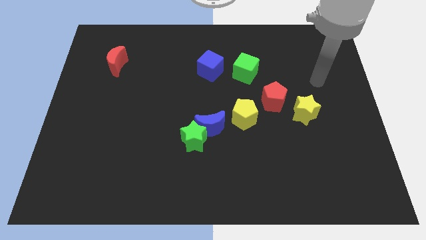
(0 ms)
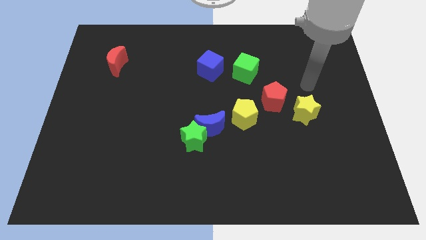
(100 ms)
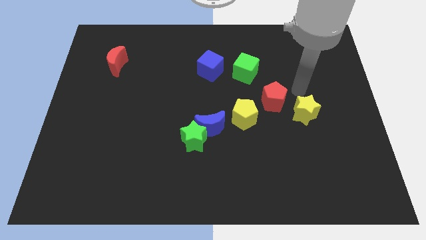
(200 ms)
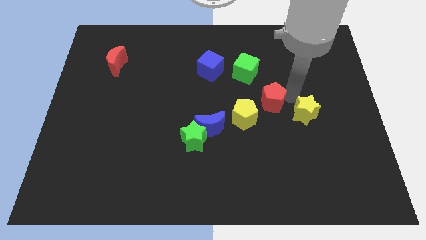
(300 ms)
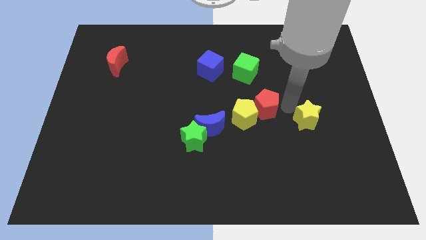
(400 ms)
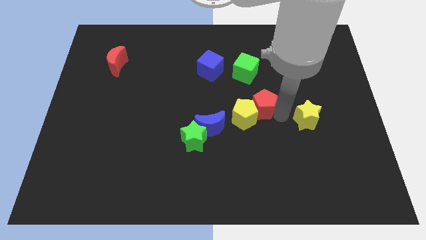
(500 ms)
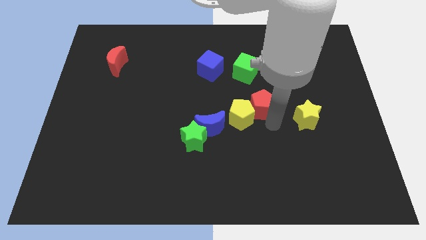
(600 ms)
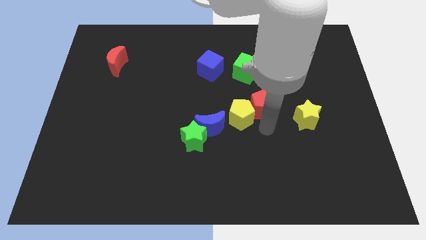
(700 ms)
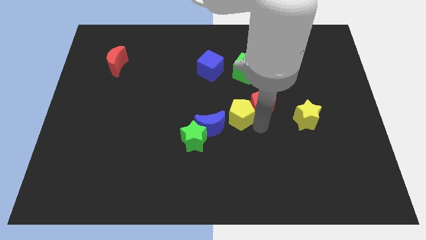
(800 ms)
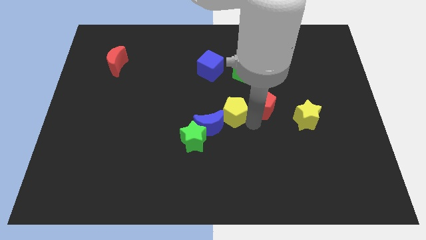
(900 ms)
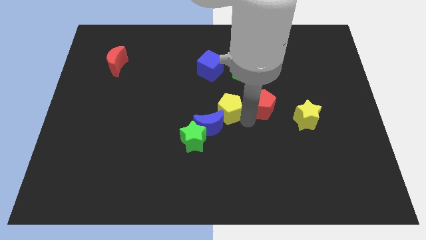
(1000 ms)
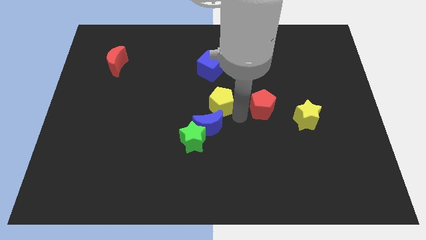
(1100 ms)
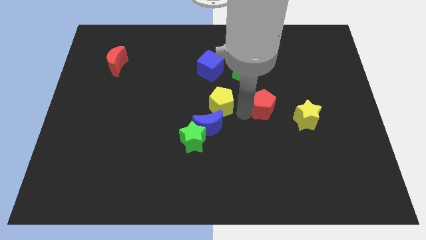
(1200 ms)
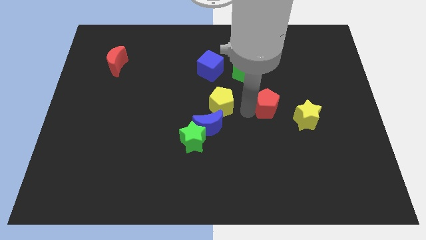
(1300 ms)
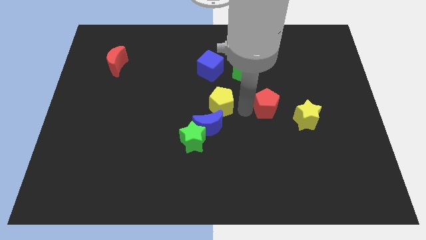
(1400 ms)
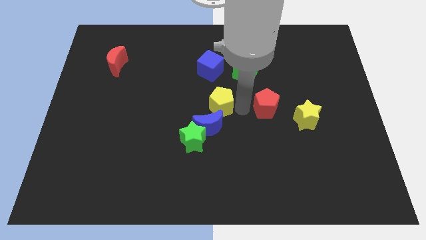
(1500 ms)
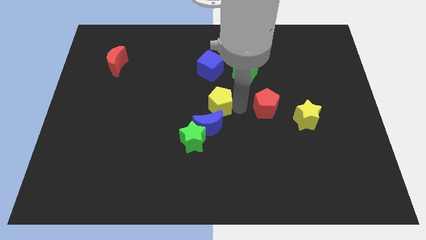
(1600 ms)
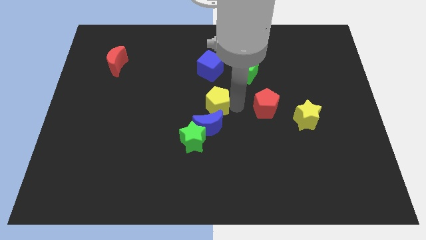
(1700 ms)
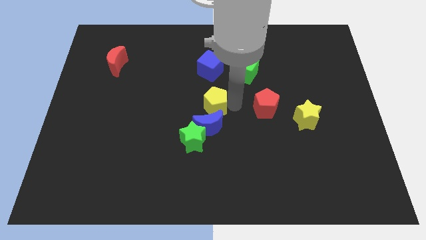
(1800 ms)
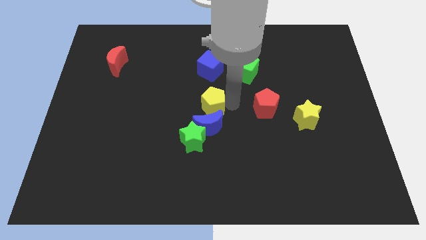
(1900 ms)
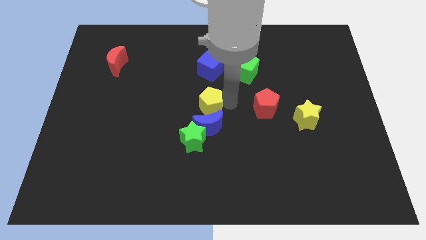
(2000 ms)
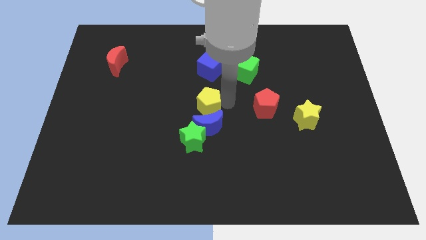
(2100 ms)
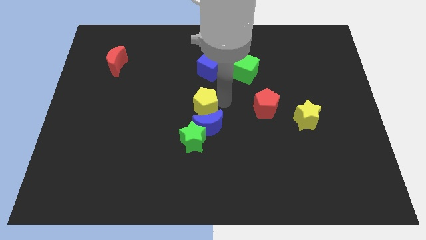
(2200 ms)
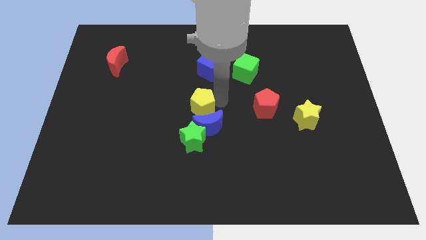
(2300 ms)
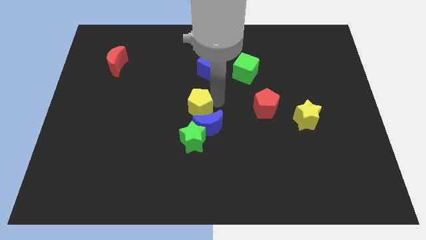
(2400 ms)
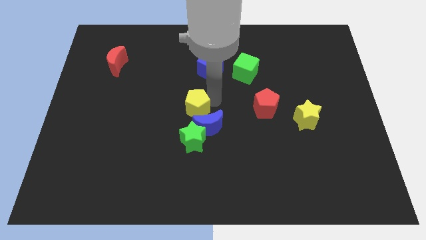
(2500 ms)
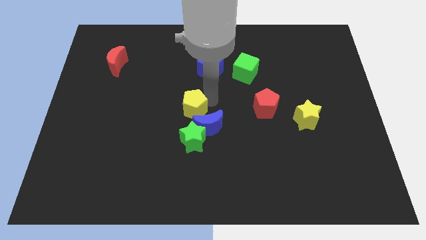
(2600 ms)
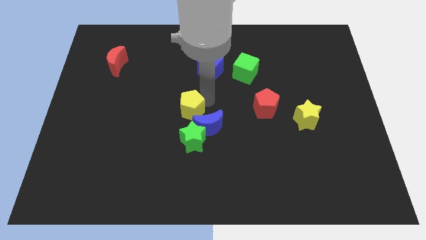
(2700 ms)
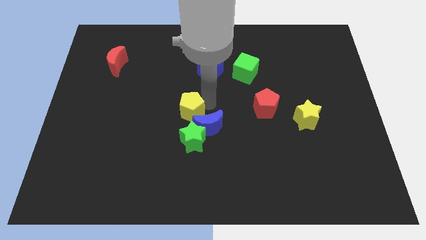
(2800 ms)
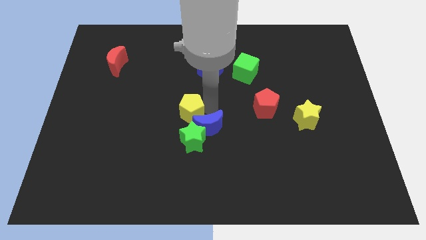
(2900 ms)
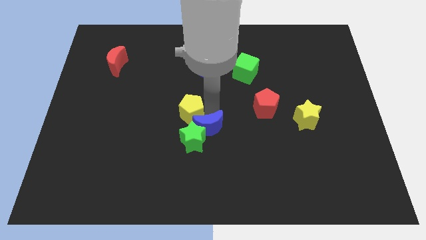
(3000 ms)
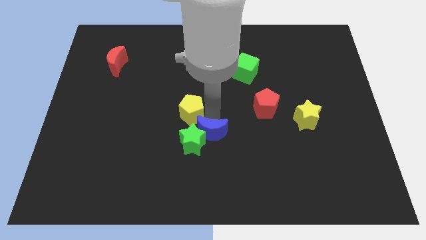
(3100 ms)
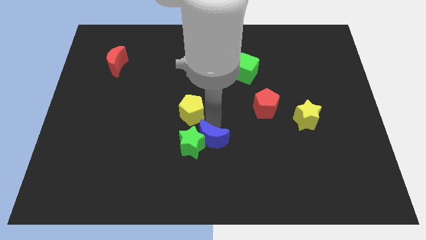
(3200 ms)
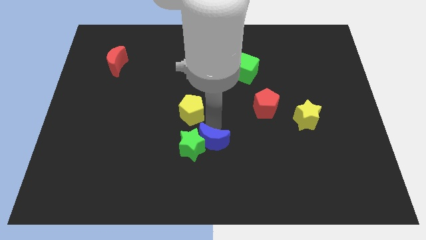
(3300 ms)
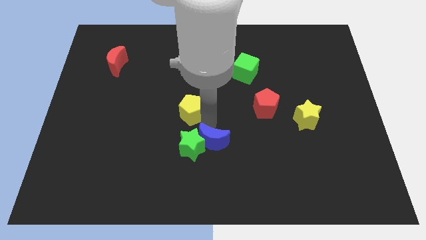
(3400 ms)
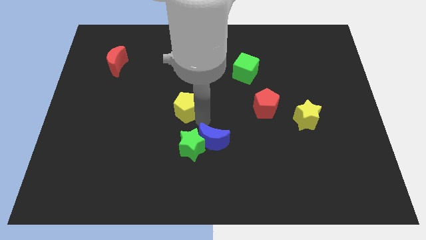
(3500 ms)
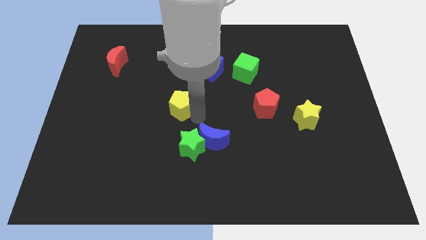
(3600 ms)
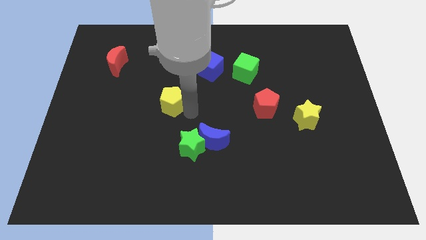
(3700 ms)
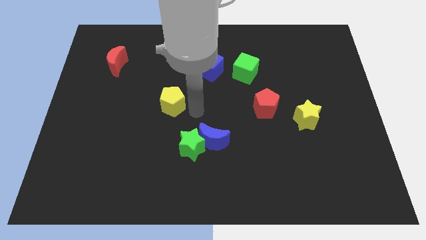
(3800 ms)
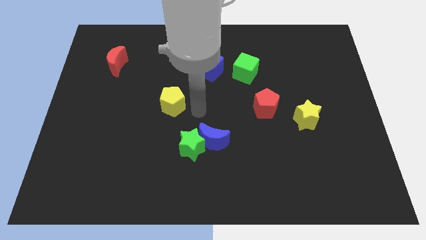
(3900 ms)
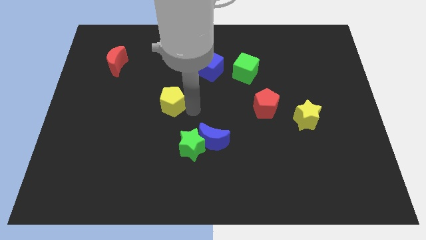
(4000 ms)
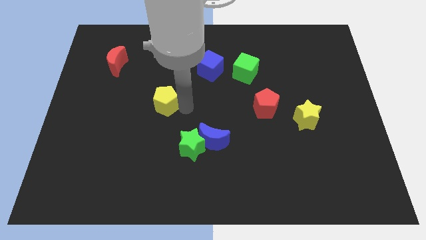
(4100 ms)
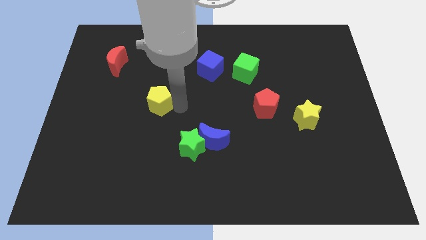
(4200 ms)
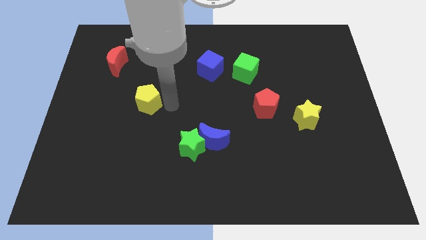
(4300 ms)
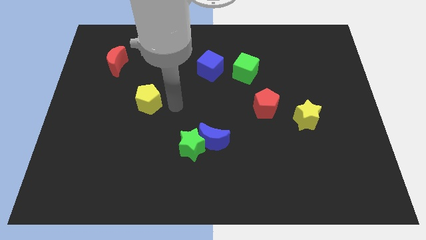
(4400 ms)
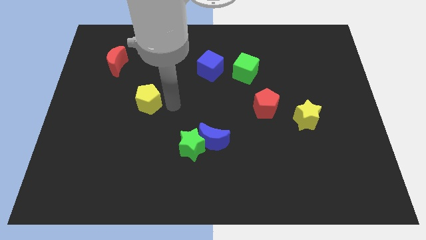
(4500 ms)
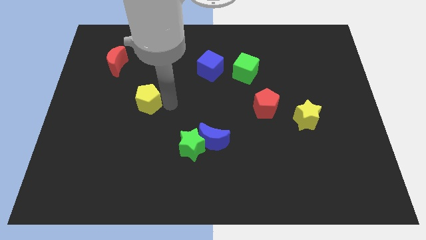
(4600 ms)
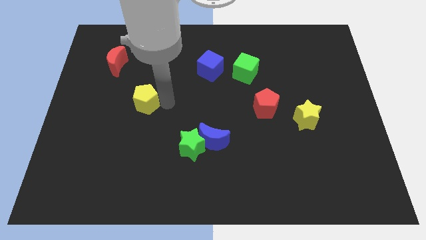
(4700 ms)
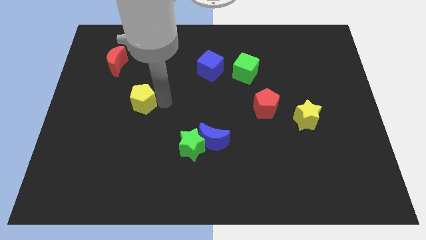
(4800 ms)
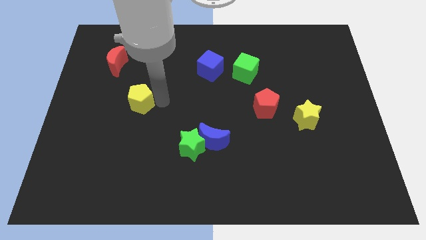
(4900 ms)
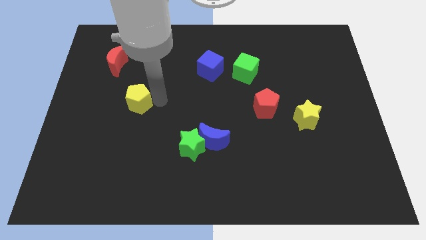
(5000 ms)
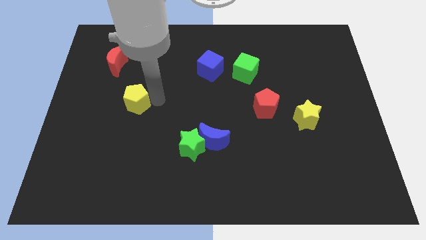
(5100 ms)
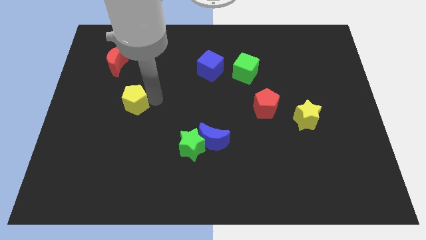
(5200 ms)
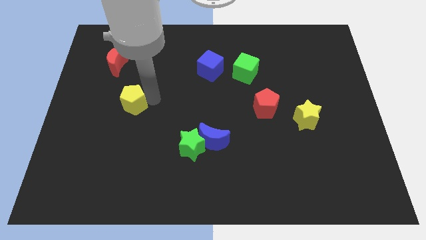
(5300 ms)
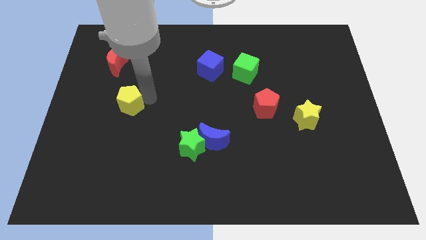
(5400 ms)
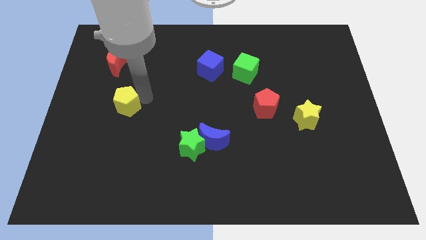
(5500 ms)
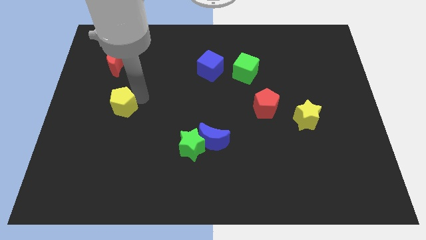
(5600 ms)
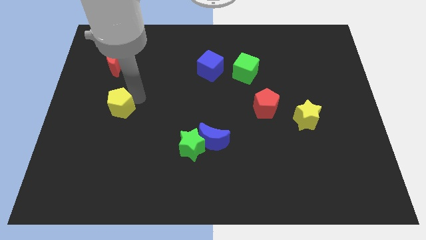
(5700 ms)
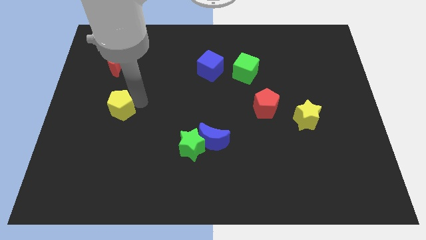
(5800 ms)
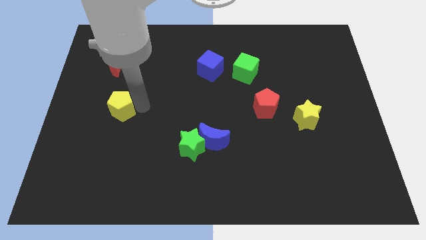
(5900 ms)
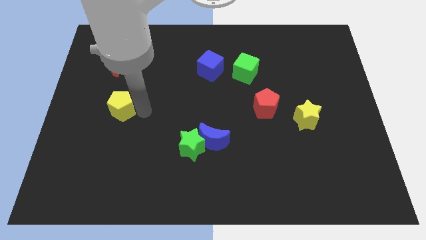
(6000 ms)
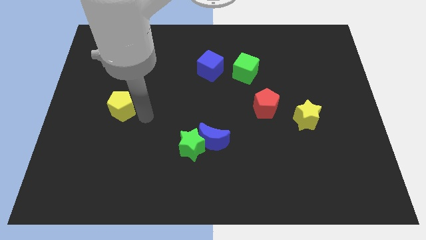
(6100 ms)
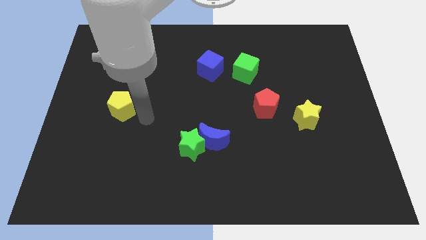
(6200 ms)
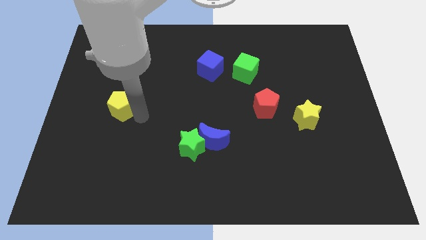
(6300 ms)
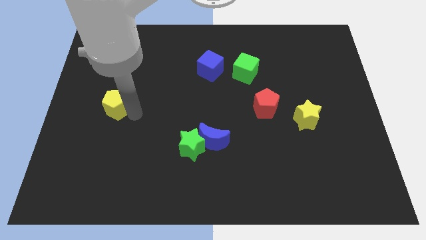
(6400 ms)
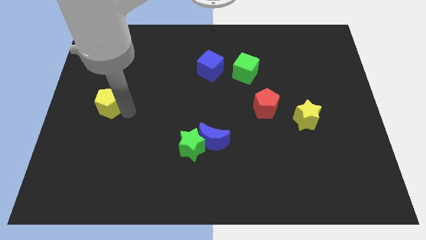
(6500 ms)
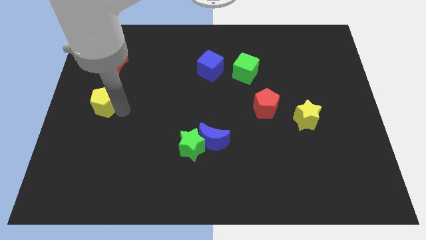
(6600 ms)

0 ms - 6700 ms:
slide the yellow pentagon to the center left
